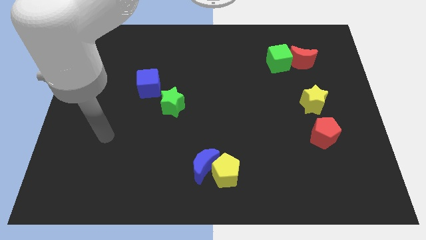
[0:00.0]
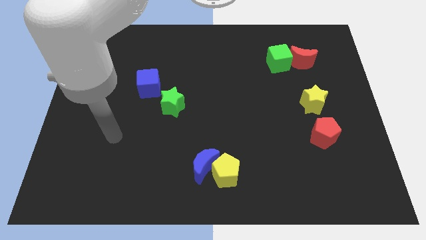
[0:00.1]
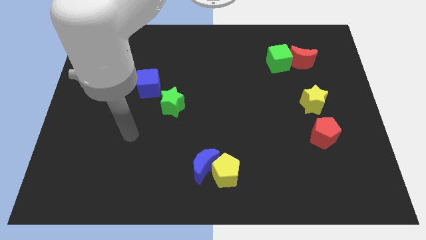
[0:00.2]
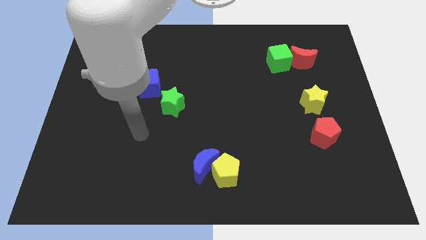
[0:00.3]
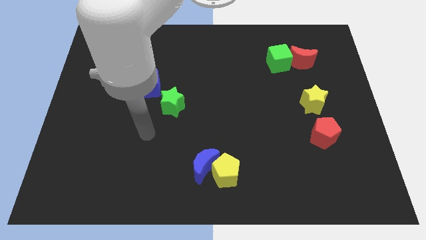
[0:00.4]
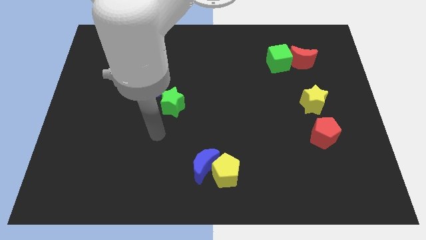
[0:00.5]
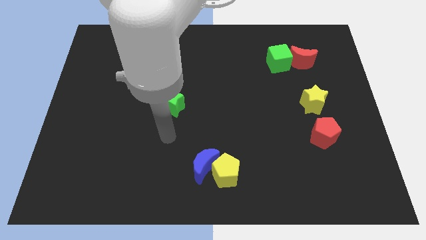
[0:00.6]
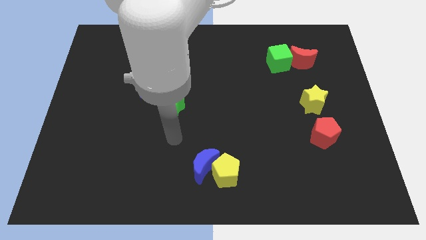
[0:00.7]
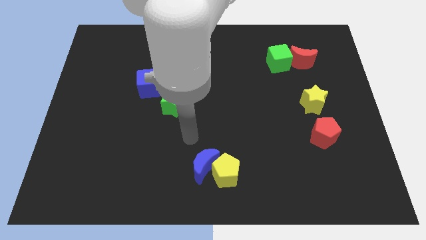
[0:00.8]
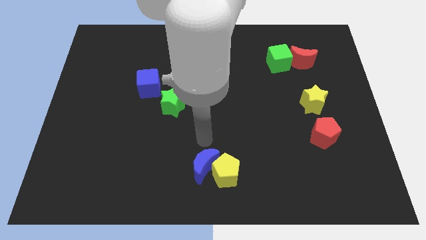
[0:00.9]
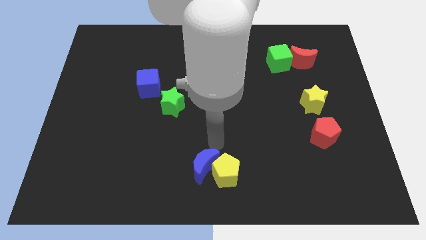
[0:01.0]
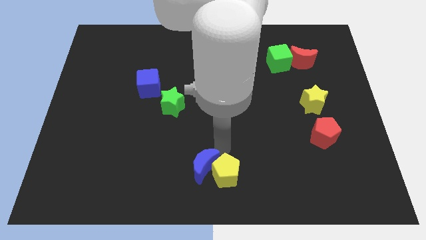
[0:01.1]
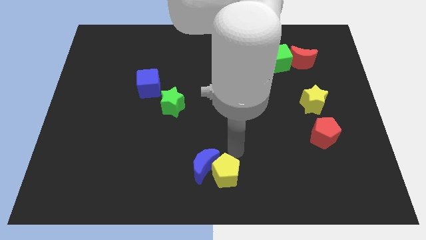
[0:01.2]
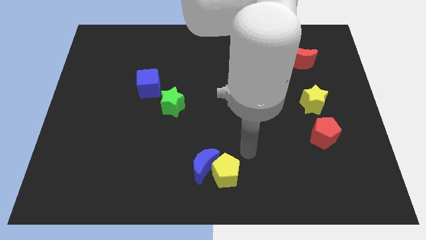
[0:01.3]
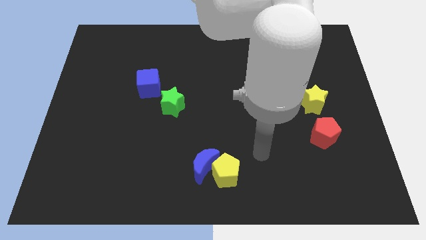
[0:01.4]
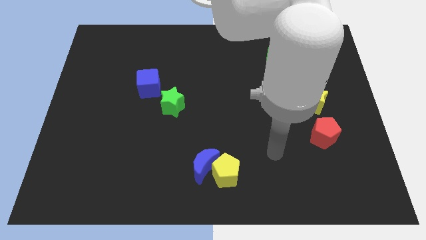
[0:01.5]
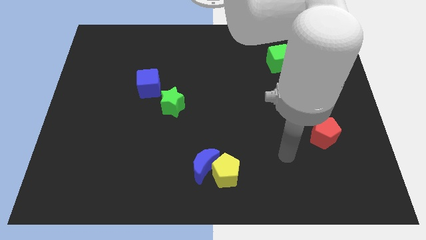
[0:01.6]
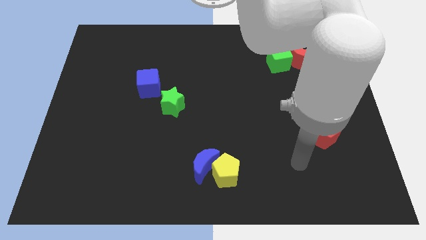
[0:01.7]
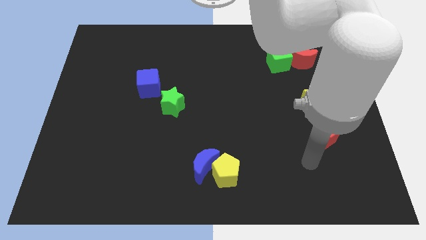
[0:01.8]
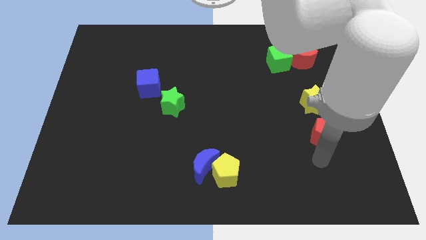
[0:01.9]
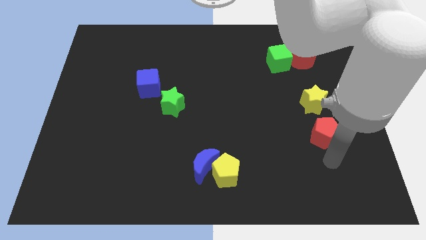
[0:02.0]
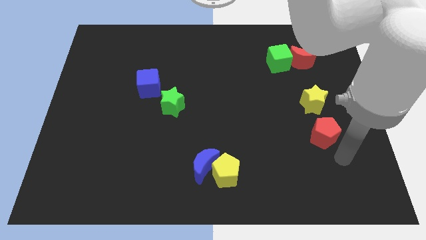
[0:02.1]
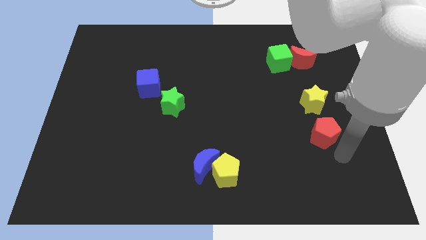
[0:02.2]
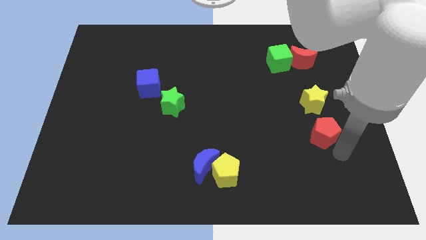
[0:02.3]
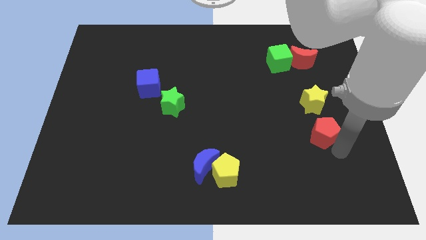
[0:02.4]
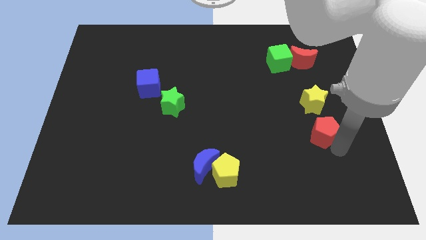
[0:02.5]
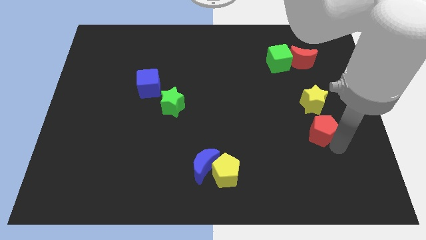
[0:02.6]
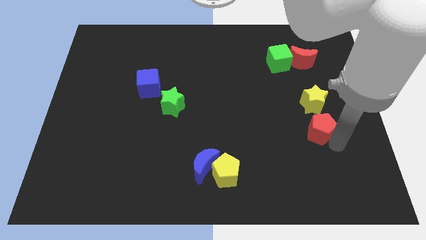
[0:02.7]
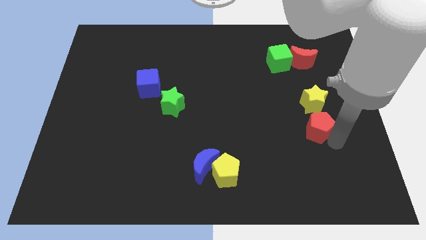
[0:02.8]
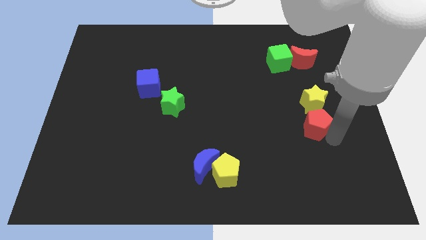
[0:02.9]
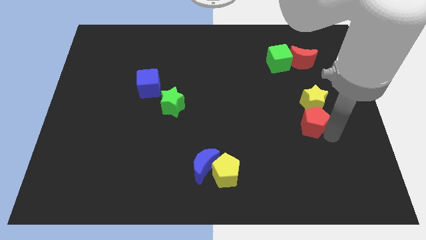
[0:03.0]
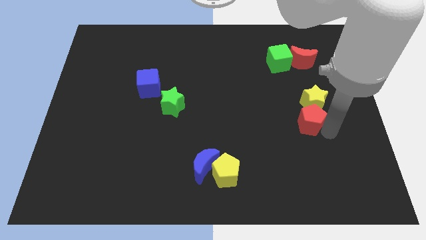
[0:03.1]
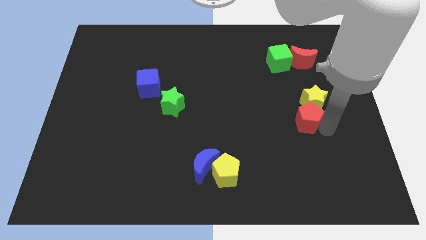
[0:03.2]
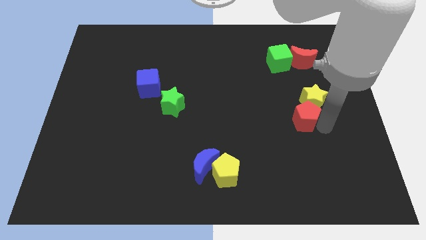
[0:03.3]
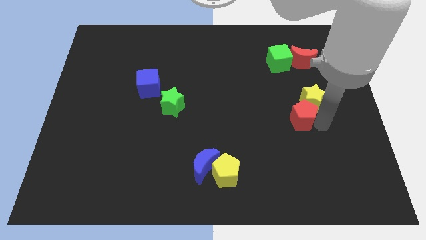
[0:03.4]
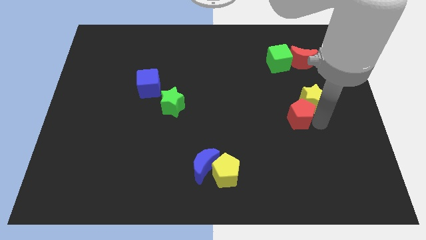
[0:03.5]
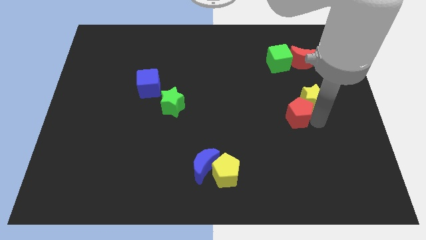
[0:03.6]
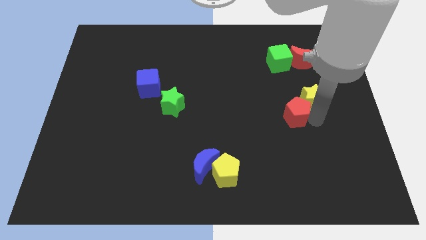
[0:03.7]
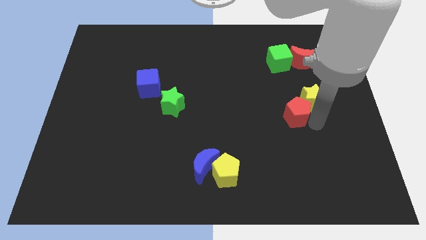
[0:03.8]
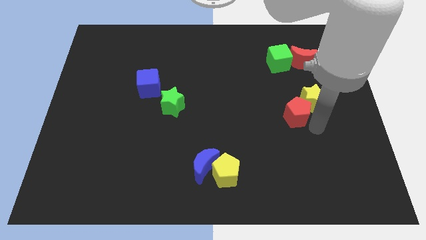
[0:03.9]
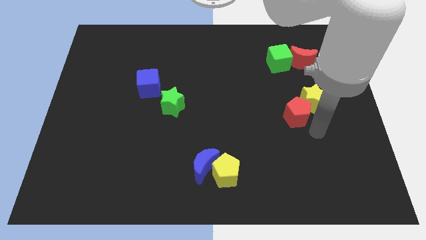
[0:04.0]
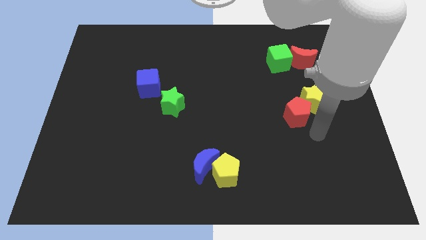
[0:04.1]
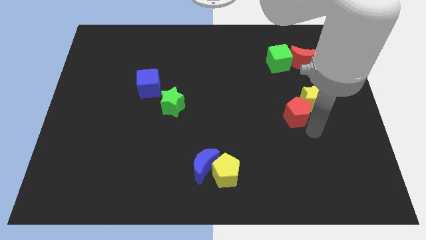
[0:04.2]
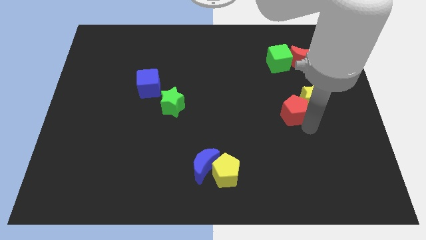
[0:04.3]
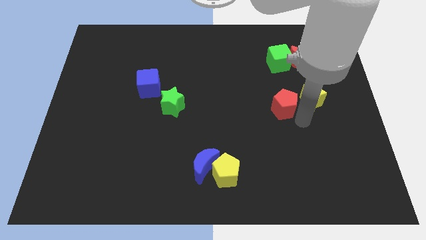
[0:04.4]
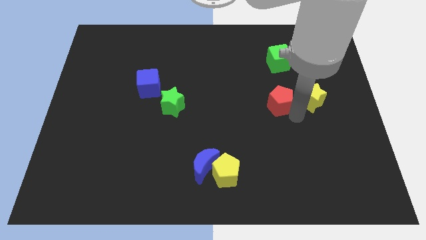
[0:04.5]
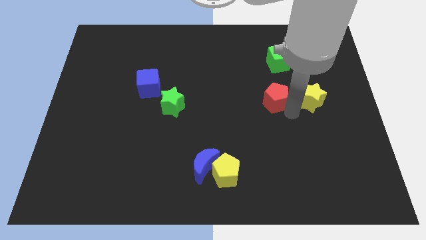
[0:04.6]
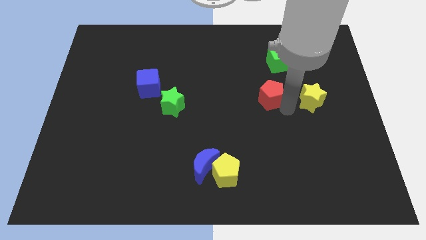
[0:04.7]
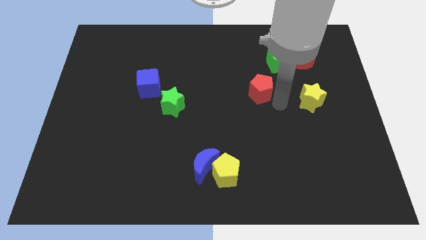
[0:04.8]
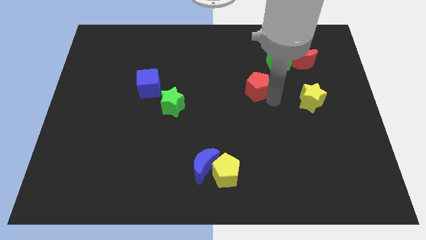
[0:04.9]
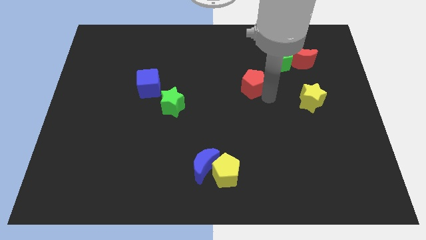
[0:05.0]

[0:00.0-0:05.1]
slide the red pentagon diagonally up and left

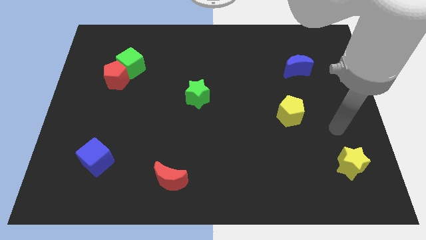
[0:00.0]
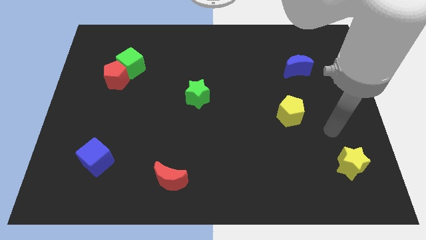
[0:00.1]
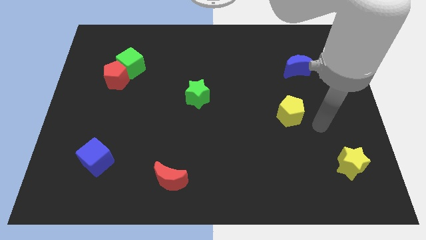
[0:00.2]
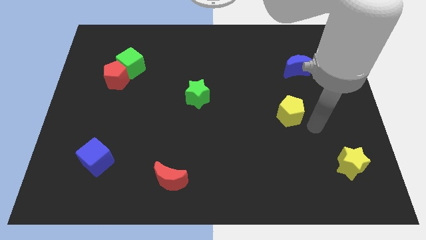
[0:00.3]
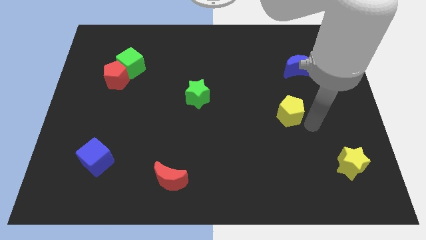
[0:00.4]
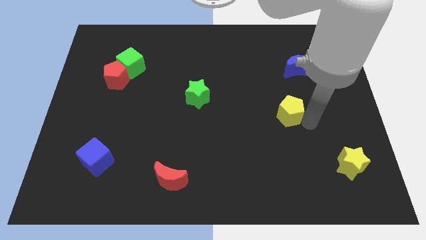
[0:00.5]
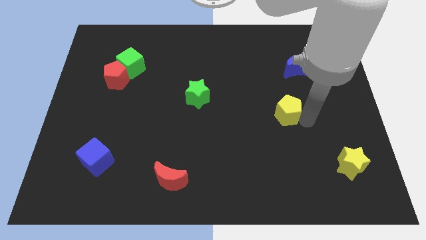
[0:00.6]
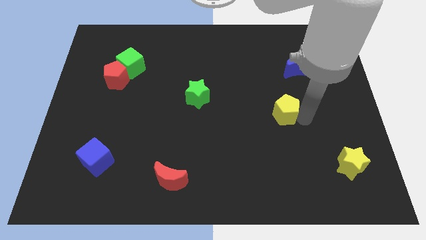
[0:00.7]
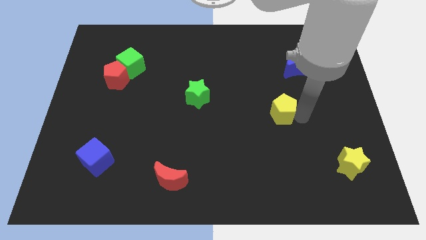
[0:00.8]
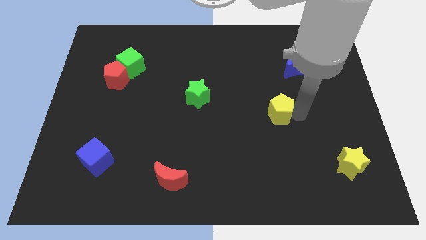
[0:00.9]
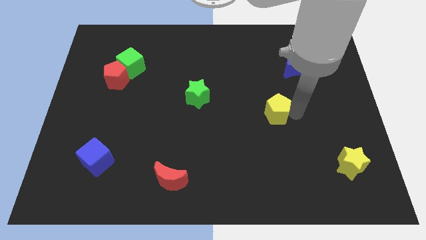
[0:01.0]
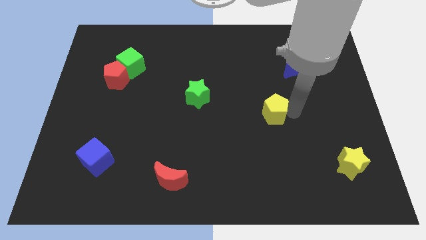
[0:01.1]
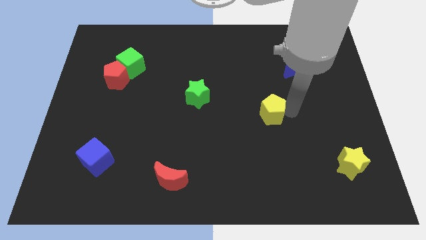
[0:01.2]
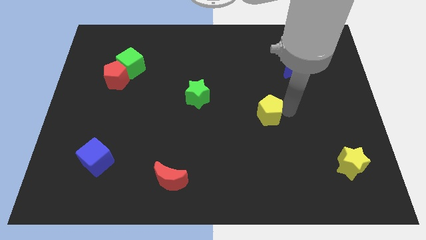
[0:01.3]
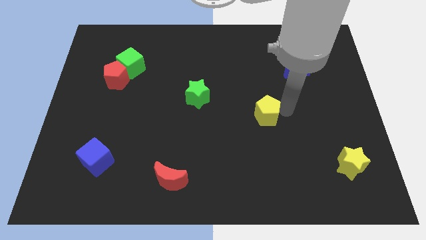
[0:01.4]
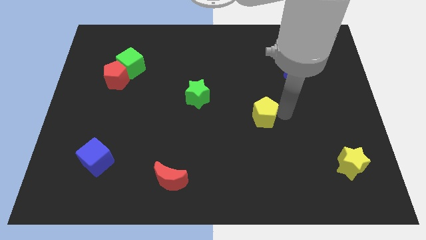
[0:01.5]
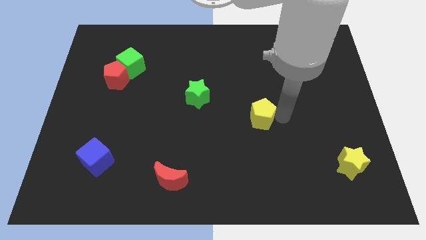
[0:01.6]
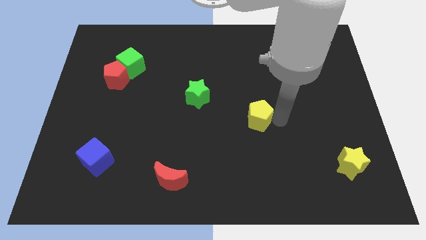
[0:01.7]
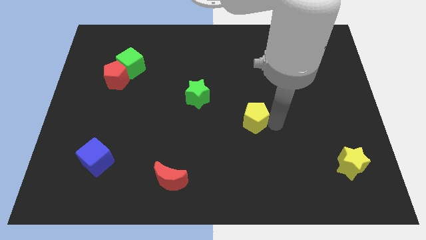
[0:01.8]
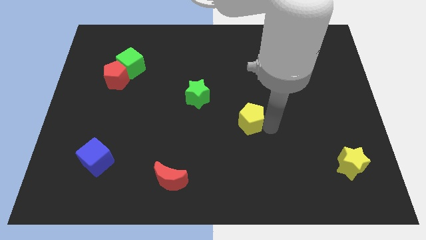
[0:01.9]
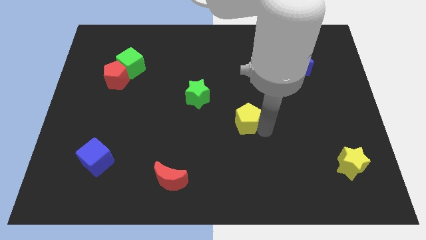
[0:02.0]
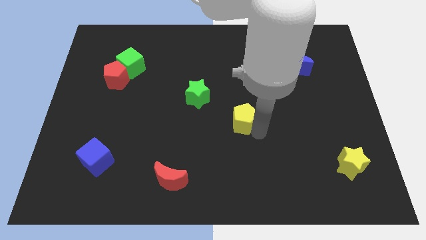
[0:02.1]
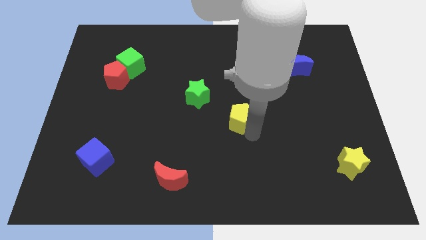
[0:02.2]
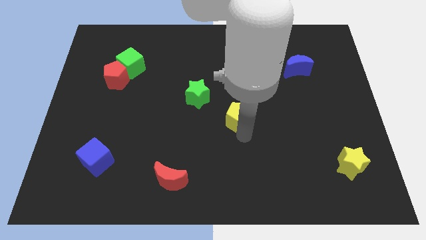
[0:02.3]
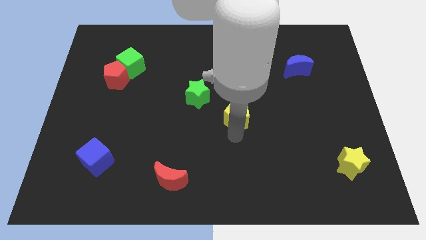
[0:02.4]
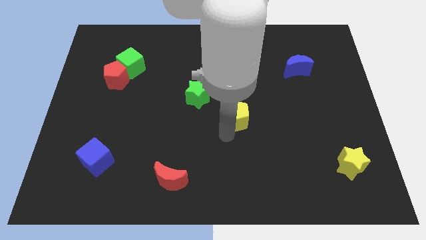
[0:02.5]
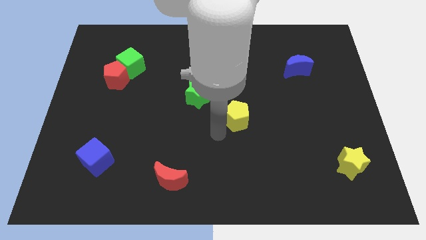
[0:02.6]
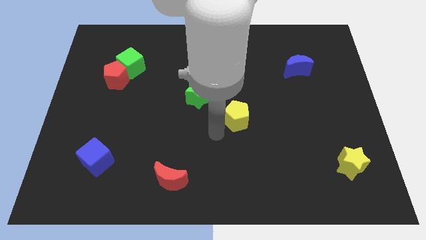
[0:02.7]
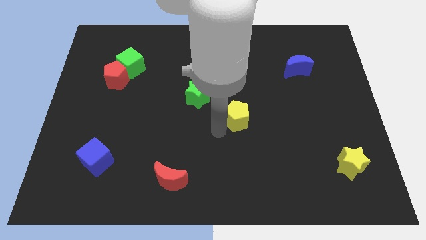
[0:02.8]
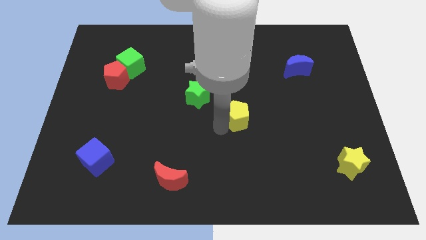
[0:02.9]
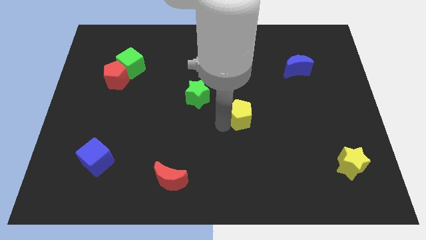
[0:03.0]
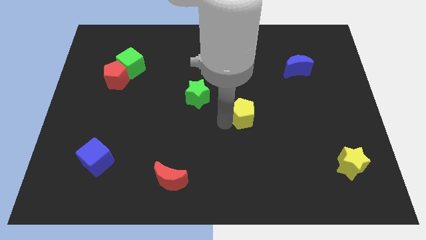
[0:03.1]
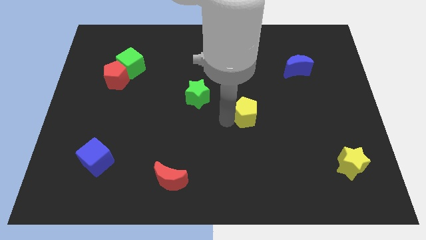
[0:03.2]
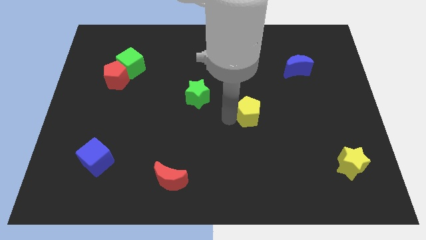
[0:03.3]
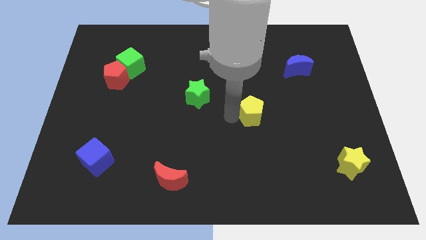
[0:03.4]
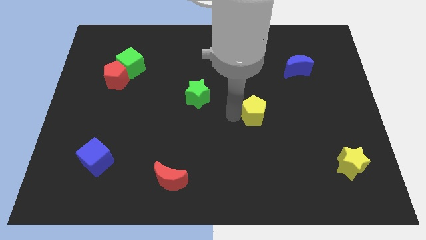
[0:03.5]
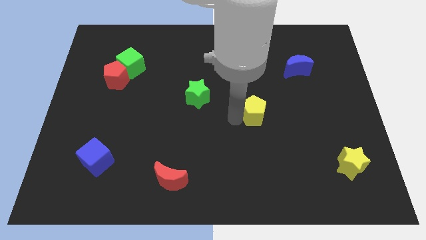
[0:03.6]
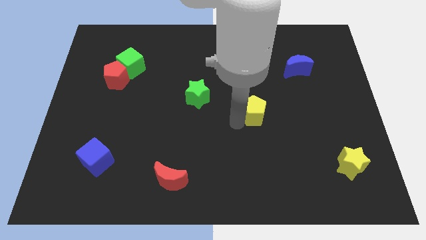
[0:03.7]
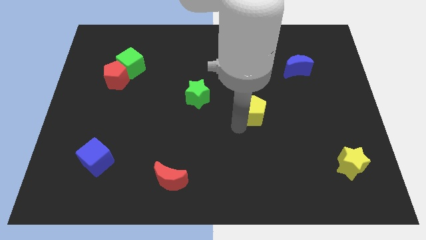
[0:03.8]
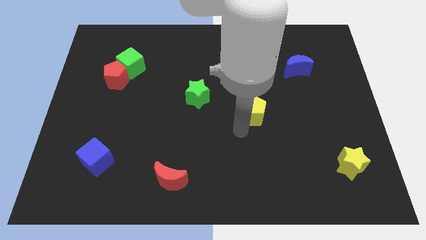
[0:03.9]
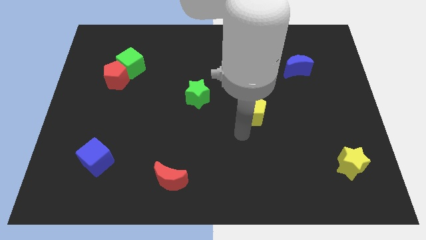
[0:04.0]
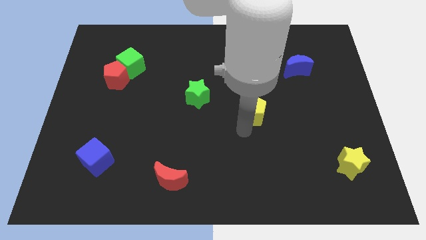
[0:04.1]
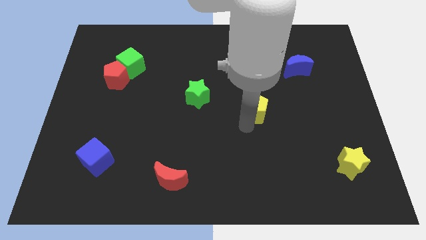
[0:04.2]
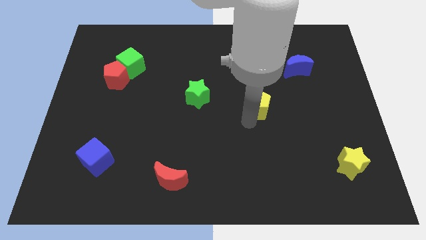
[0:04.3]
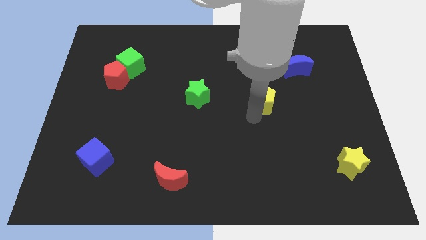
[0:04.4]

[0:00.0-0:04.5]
slightly slide the yellow pentagon up and then to the left
